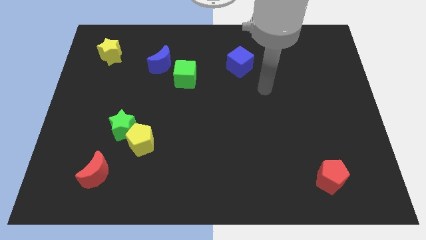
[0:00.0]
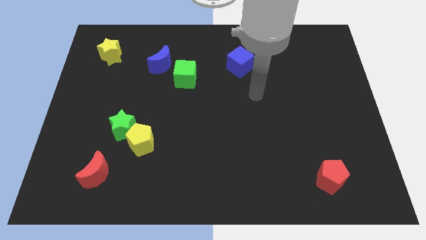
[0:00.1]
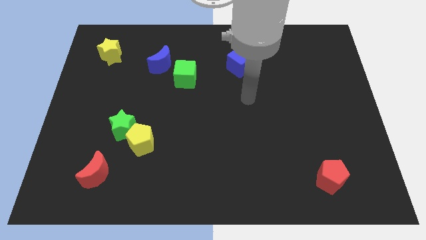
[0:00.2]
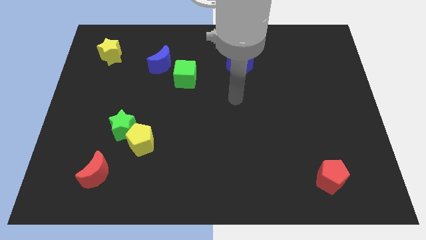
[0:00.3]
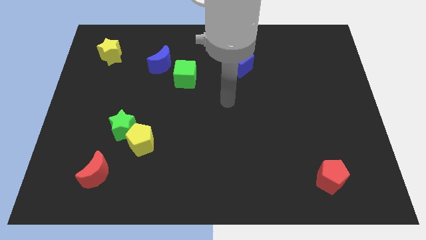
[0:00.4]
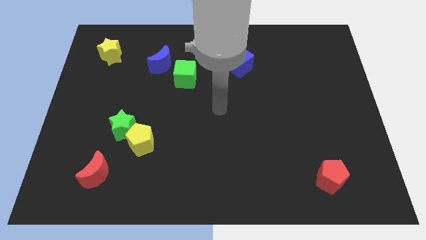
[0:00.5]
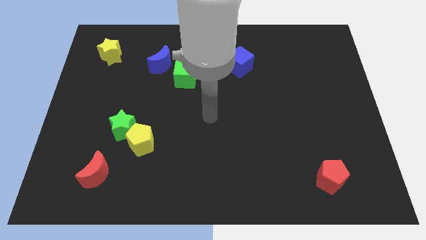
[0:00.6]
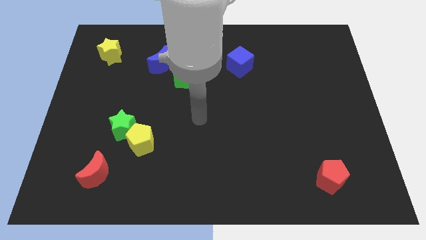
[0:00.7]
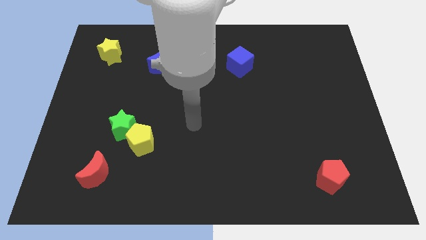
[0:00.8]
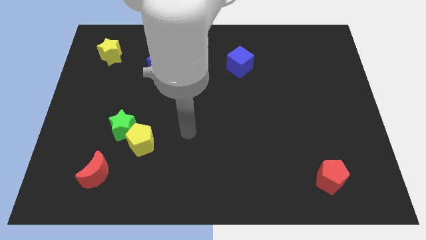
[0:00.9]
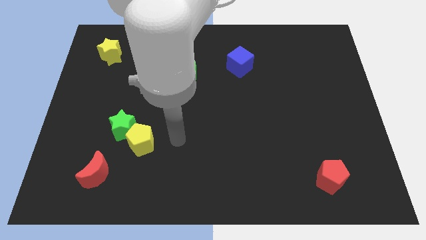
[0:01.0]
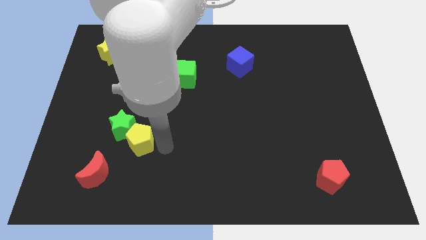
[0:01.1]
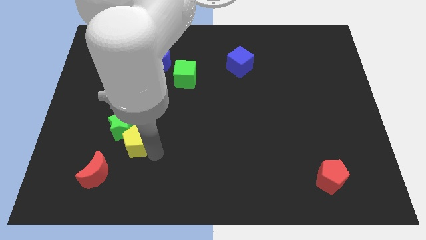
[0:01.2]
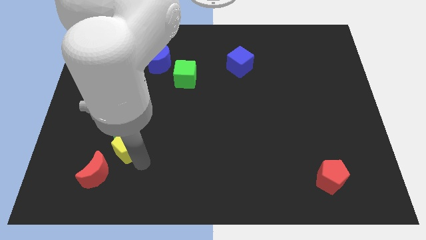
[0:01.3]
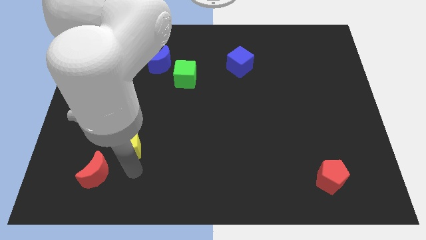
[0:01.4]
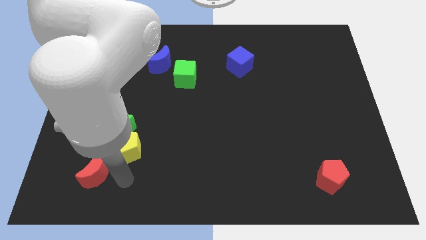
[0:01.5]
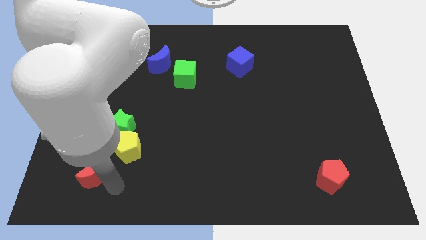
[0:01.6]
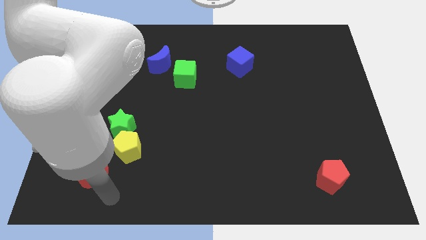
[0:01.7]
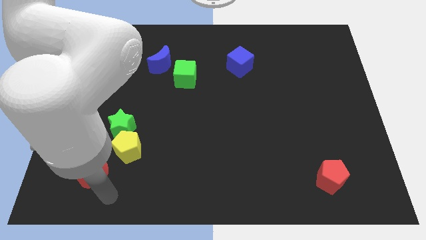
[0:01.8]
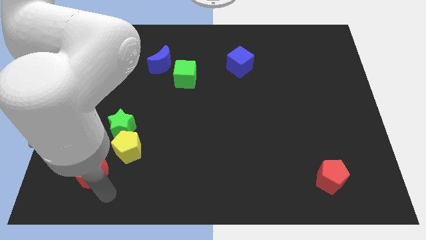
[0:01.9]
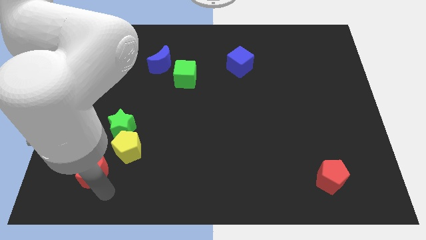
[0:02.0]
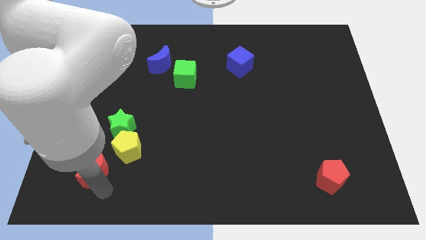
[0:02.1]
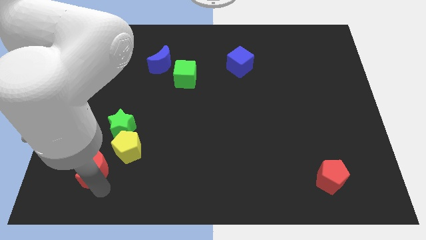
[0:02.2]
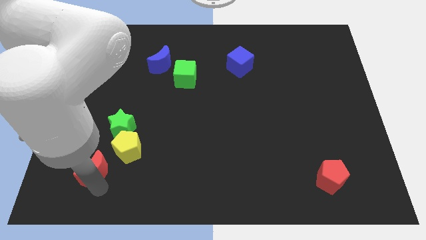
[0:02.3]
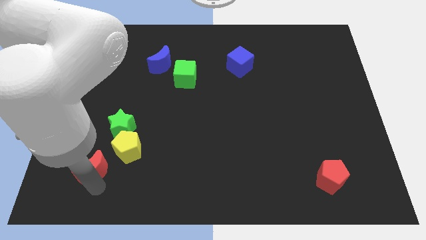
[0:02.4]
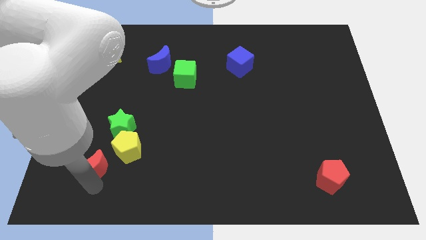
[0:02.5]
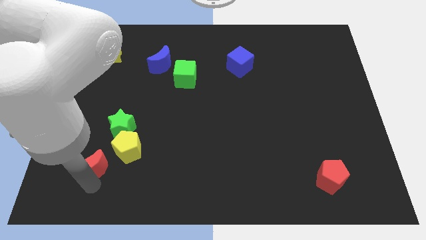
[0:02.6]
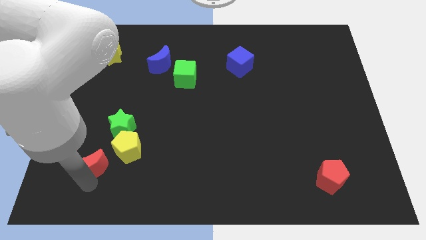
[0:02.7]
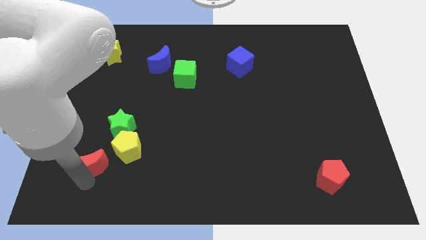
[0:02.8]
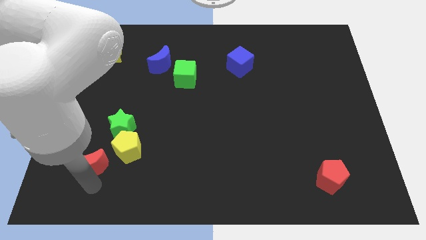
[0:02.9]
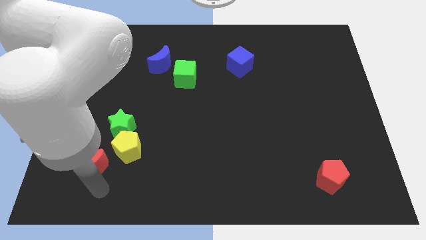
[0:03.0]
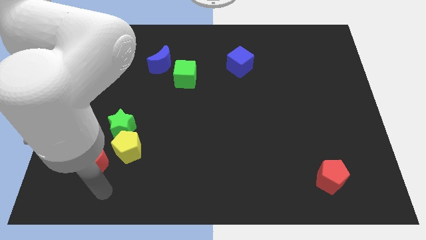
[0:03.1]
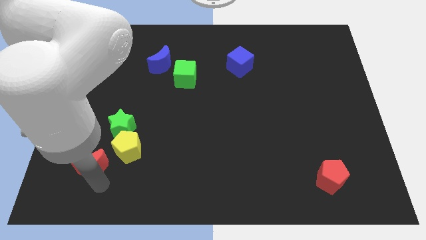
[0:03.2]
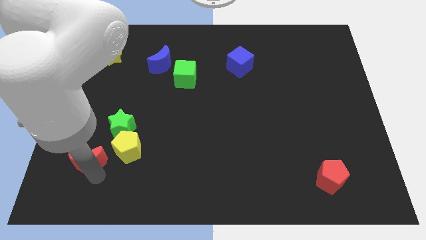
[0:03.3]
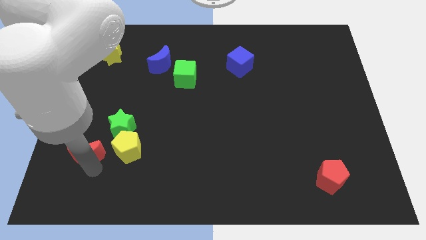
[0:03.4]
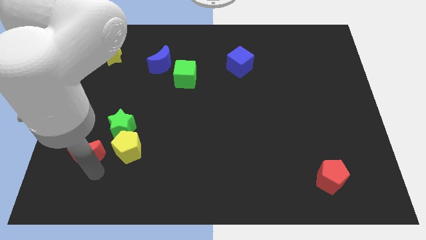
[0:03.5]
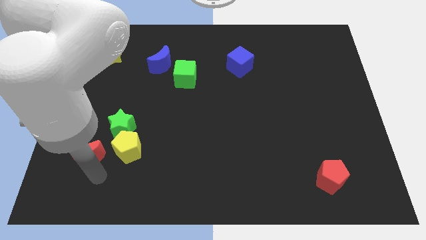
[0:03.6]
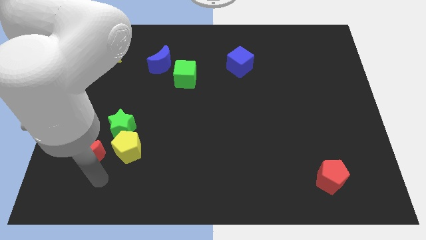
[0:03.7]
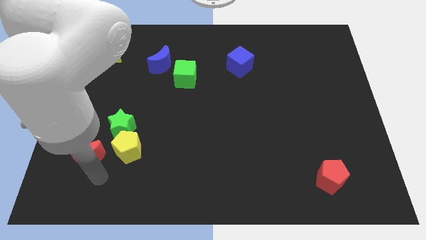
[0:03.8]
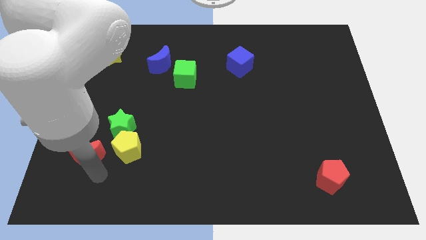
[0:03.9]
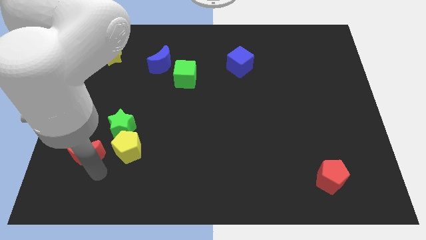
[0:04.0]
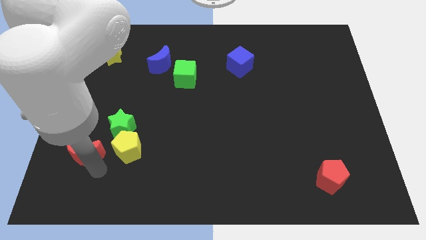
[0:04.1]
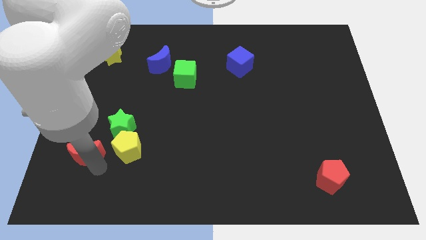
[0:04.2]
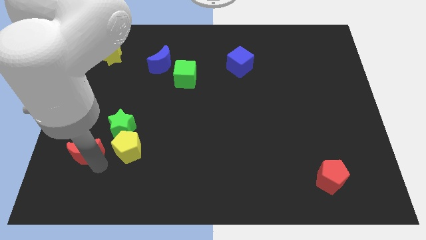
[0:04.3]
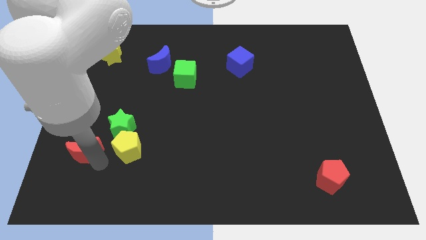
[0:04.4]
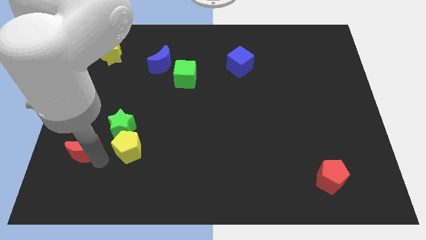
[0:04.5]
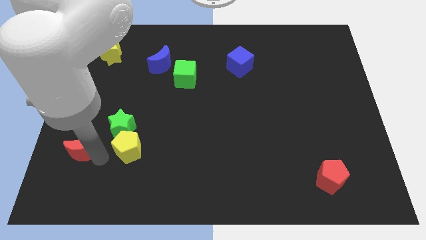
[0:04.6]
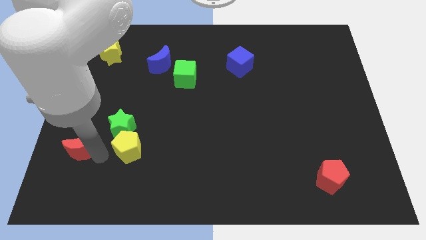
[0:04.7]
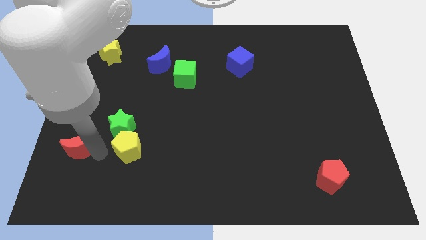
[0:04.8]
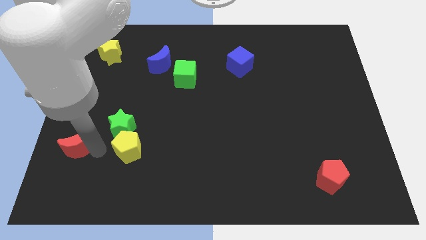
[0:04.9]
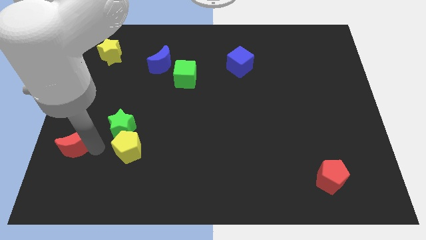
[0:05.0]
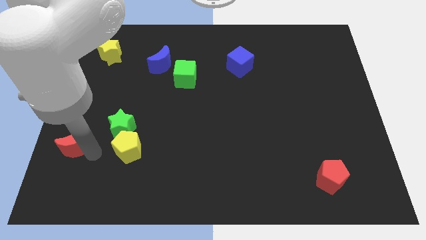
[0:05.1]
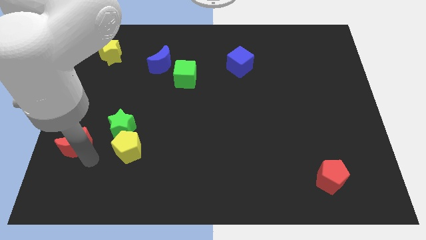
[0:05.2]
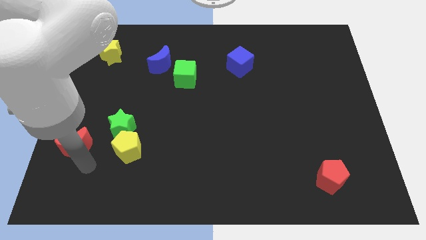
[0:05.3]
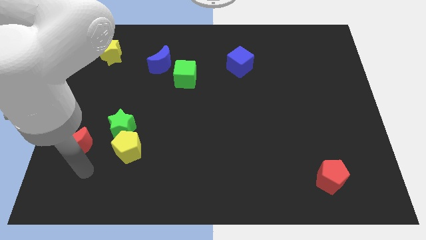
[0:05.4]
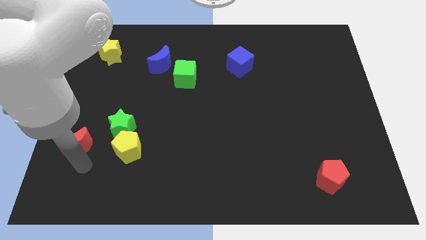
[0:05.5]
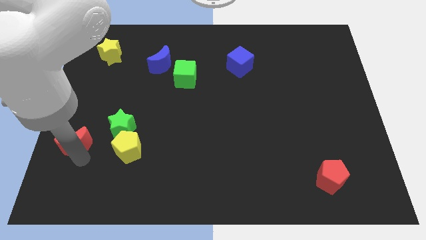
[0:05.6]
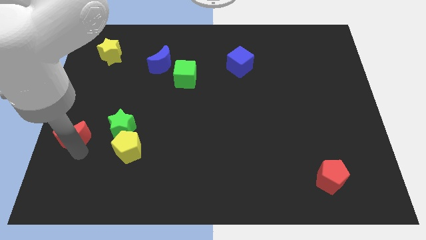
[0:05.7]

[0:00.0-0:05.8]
slide the red moon to the center left

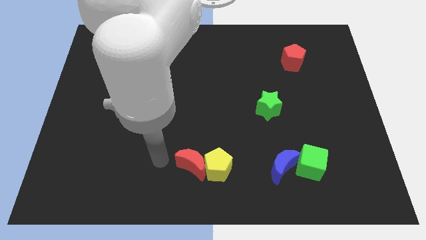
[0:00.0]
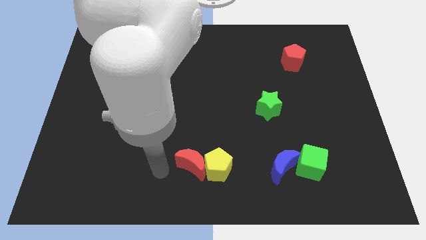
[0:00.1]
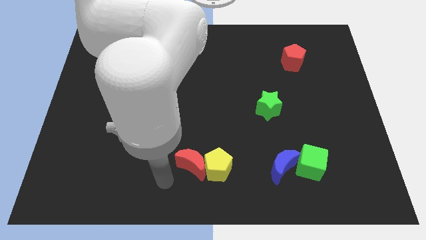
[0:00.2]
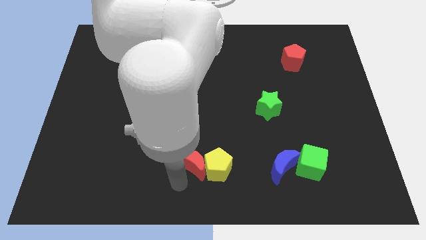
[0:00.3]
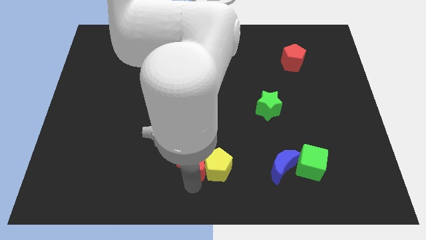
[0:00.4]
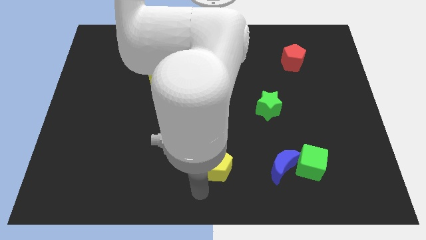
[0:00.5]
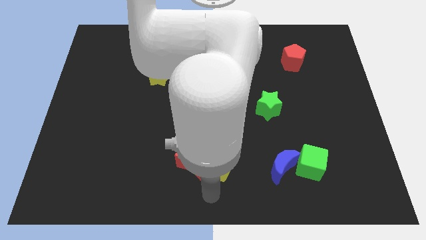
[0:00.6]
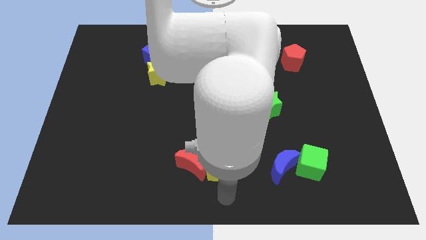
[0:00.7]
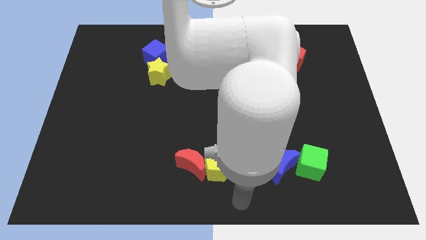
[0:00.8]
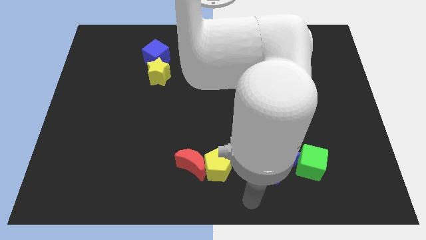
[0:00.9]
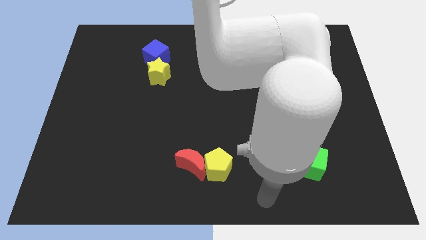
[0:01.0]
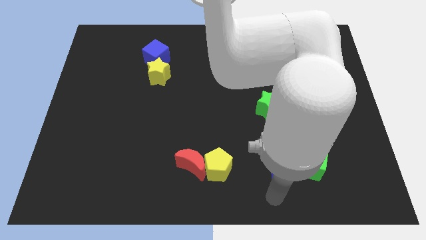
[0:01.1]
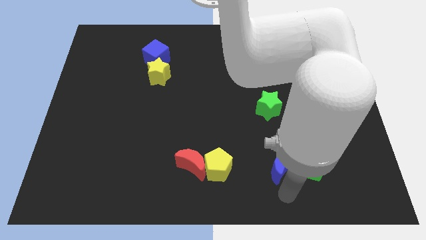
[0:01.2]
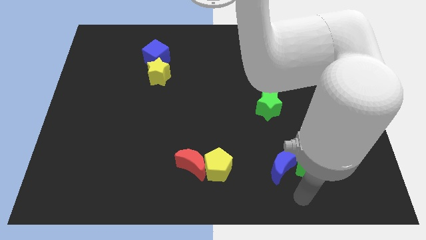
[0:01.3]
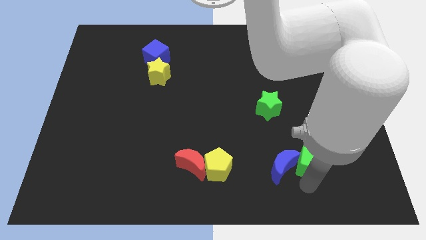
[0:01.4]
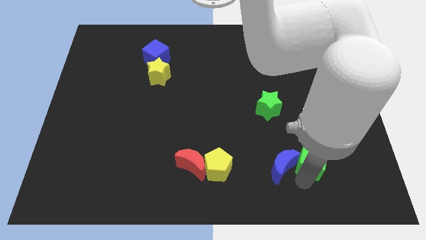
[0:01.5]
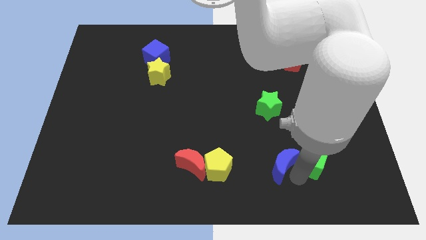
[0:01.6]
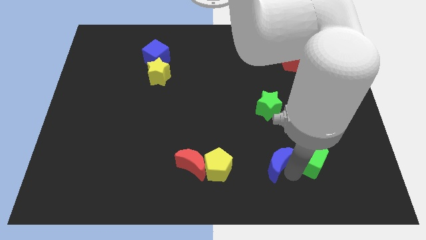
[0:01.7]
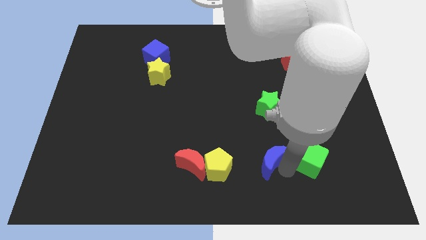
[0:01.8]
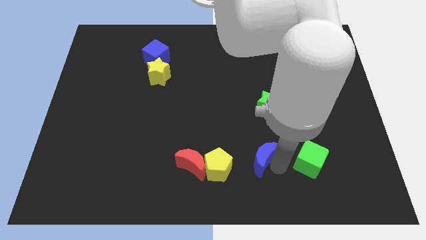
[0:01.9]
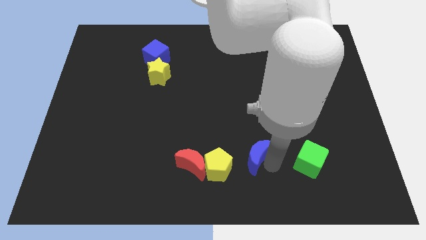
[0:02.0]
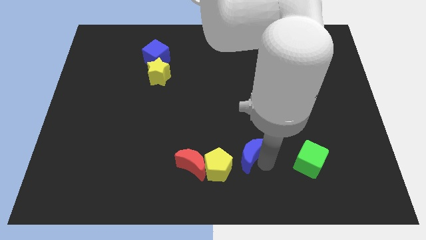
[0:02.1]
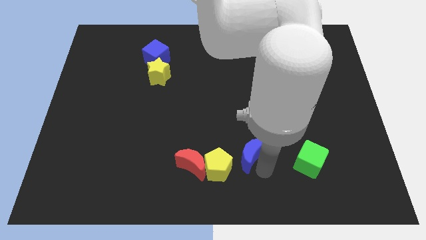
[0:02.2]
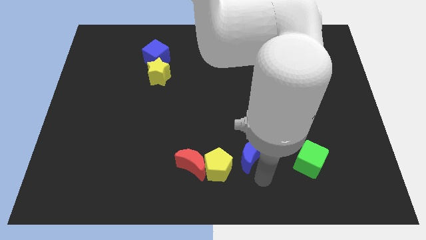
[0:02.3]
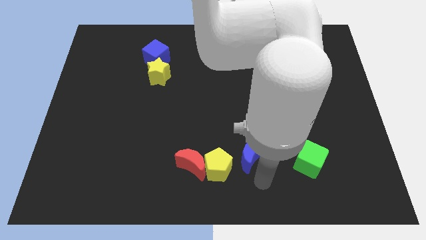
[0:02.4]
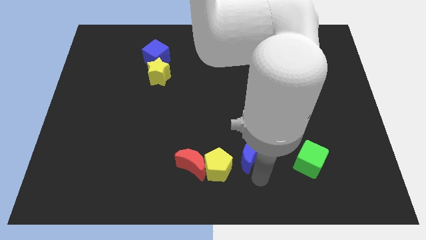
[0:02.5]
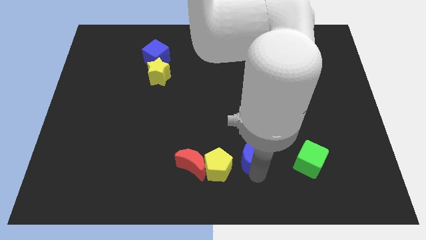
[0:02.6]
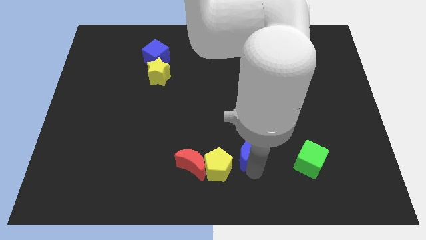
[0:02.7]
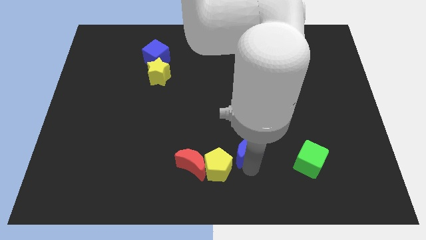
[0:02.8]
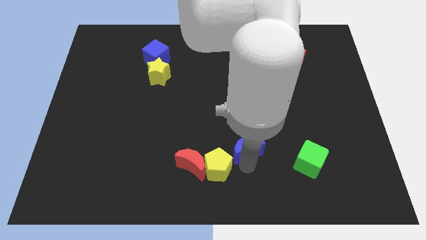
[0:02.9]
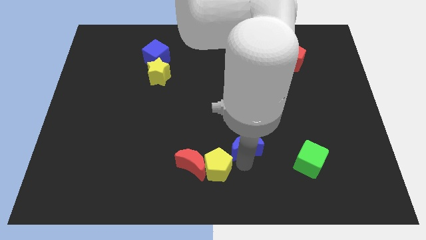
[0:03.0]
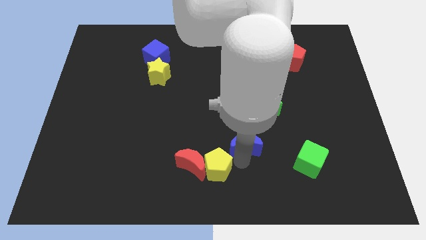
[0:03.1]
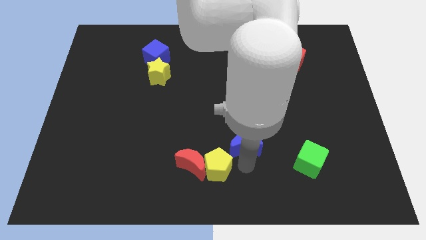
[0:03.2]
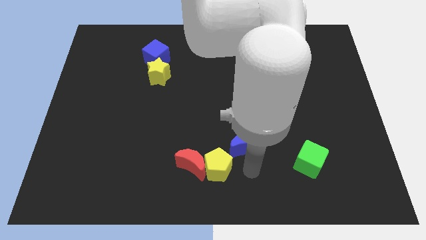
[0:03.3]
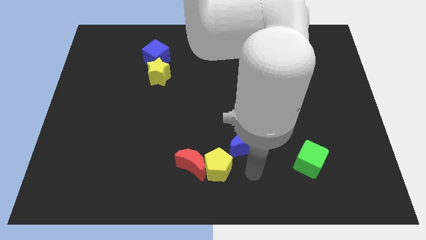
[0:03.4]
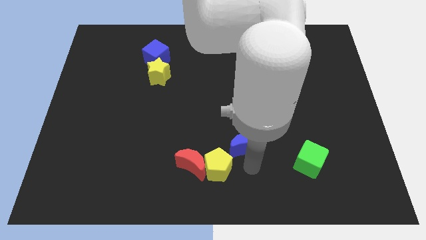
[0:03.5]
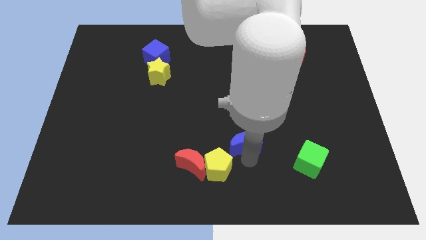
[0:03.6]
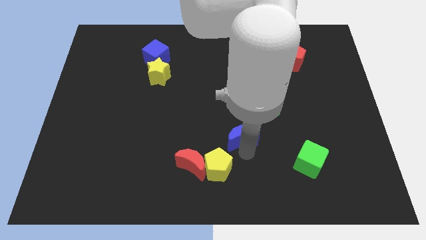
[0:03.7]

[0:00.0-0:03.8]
push the blue moon to the center of the board
